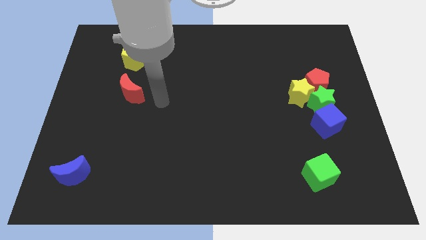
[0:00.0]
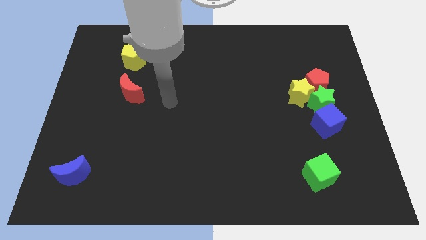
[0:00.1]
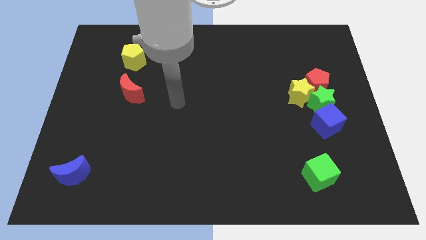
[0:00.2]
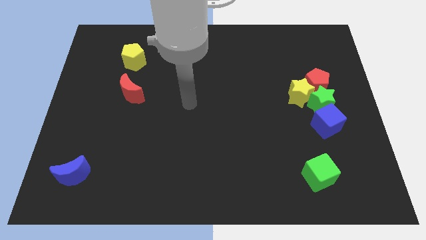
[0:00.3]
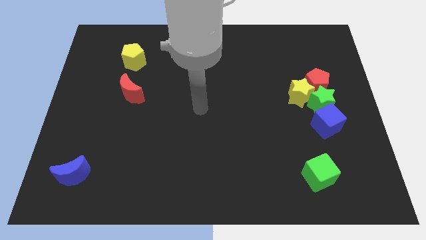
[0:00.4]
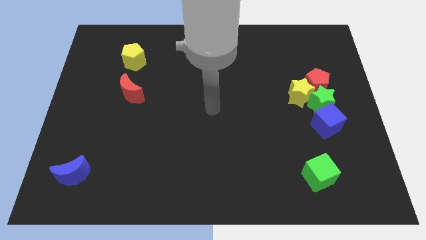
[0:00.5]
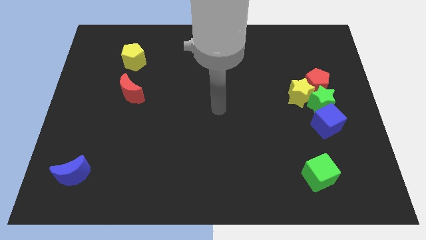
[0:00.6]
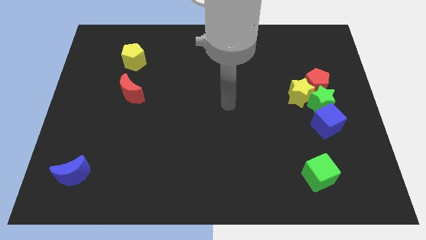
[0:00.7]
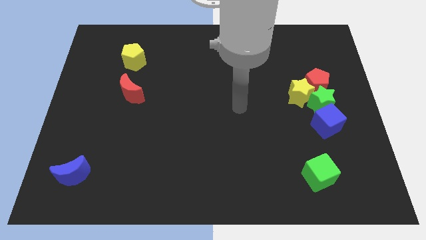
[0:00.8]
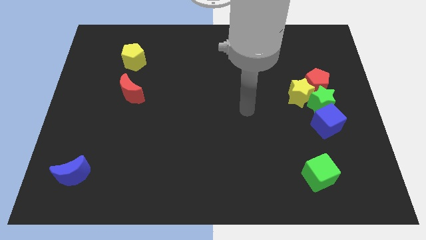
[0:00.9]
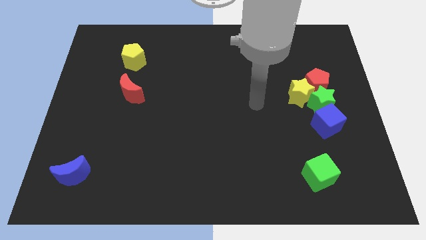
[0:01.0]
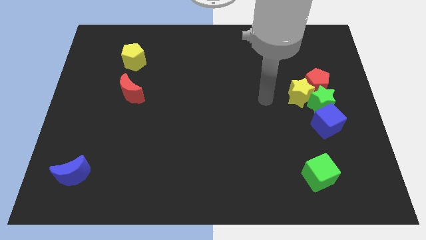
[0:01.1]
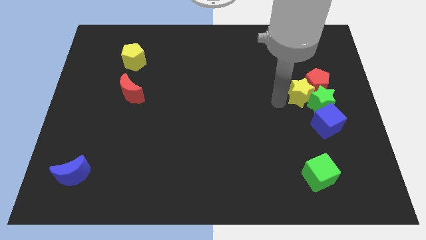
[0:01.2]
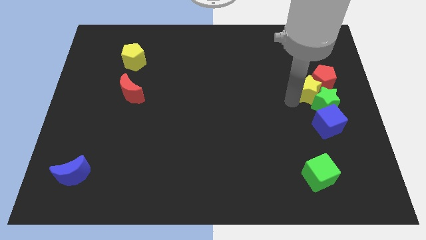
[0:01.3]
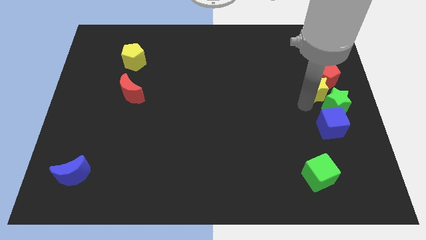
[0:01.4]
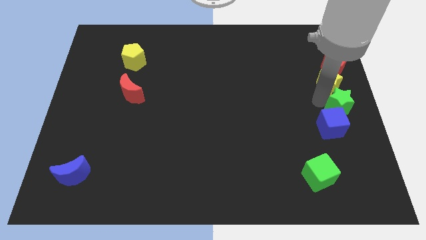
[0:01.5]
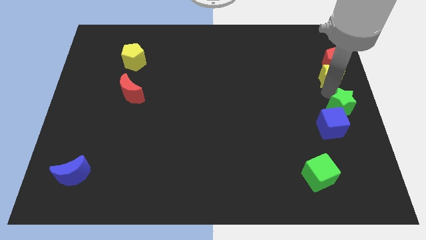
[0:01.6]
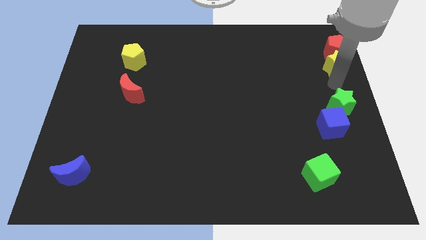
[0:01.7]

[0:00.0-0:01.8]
move the red pentagon away from the green star and yellow star

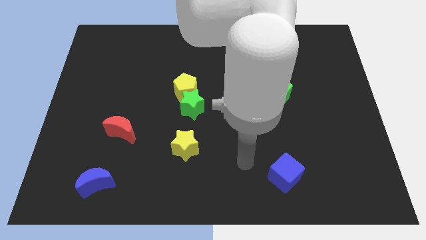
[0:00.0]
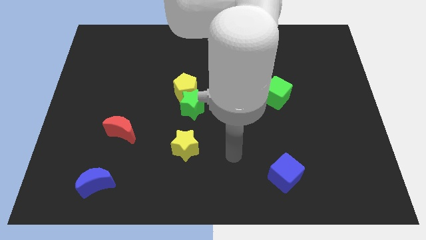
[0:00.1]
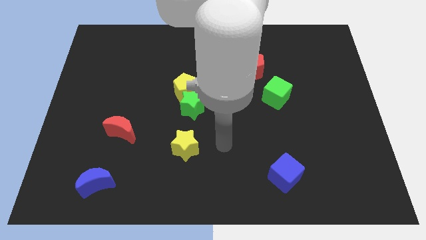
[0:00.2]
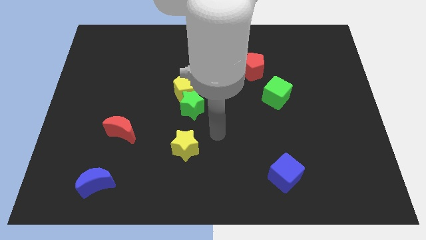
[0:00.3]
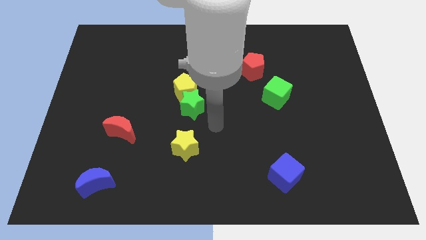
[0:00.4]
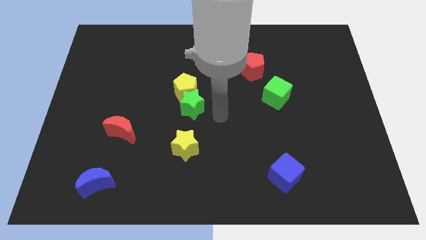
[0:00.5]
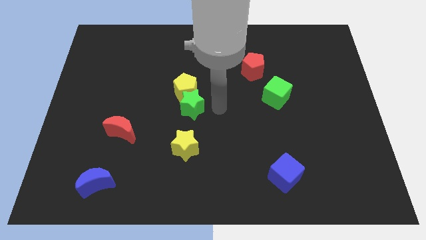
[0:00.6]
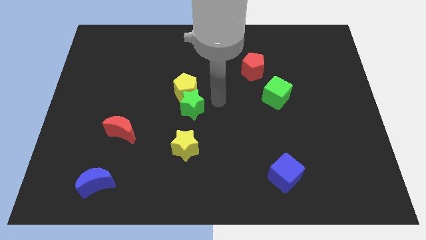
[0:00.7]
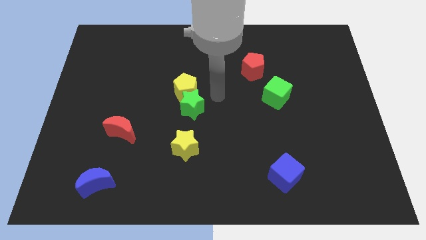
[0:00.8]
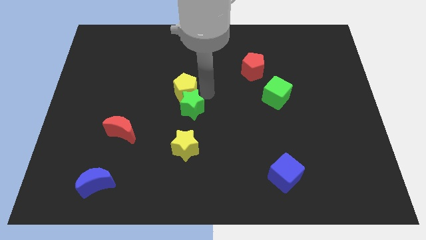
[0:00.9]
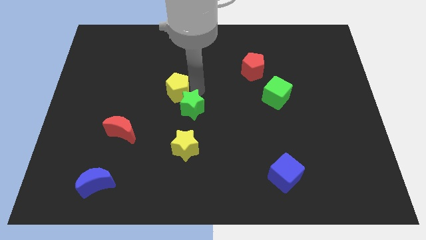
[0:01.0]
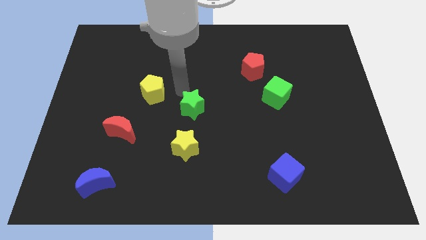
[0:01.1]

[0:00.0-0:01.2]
separate the green star from the yellow pentagon

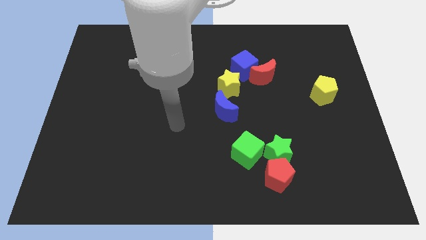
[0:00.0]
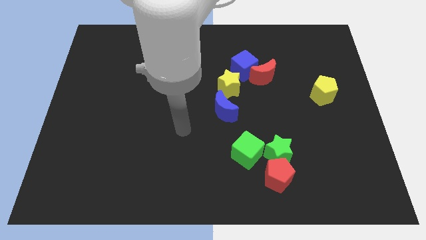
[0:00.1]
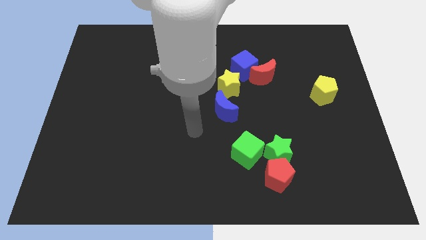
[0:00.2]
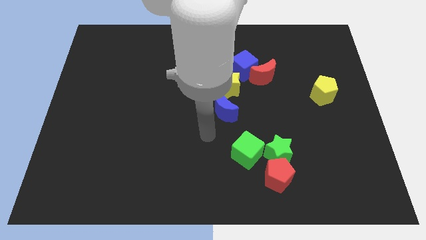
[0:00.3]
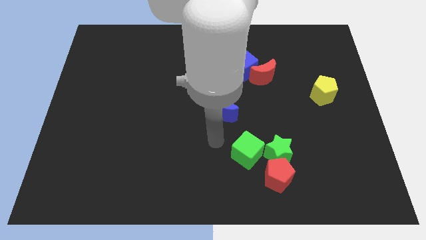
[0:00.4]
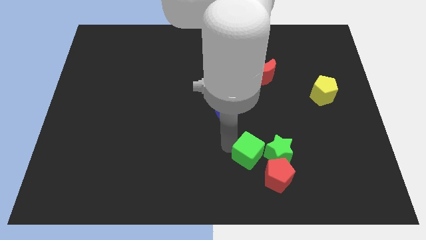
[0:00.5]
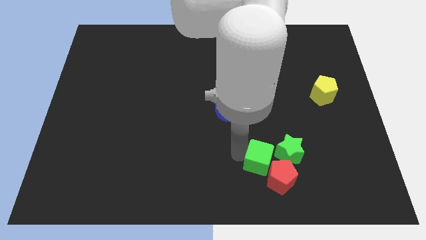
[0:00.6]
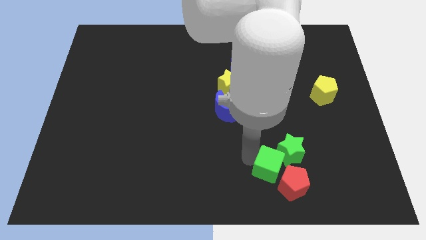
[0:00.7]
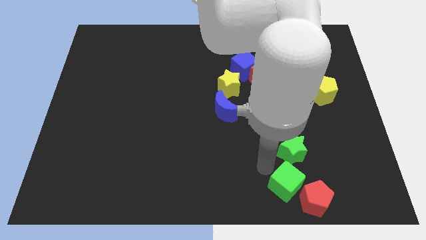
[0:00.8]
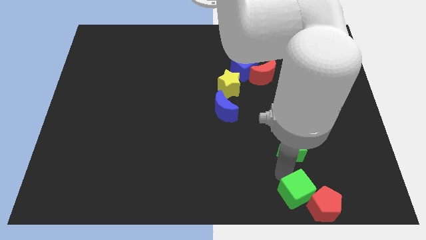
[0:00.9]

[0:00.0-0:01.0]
move the green star away from the red pentagon and green cube

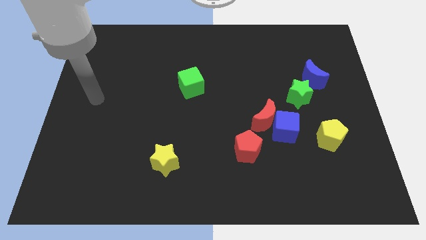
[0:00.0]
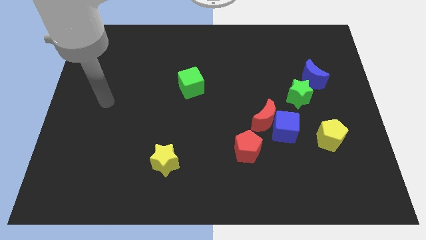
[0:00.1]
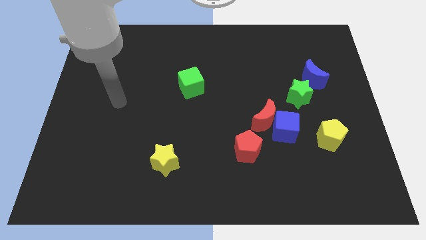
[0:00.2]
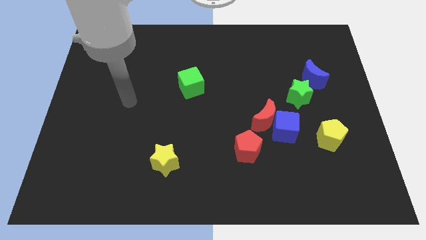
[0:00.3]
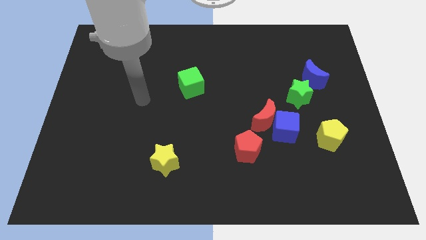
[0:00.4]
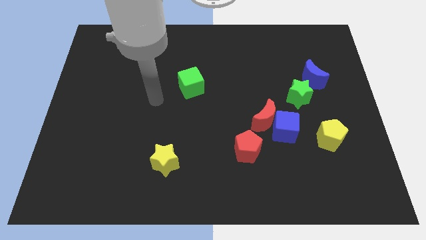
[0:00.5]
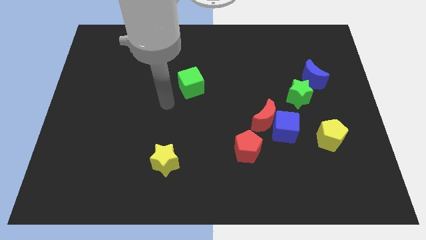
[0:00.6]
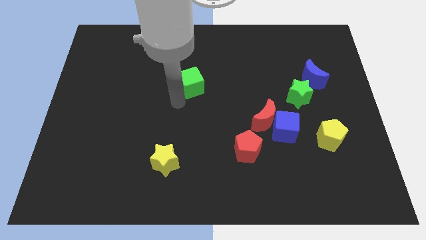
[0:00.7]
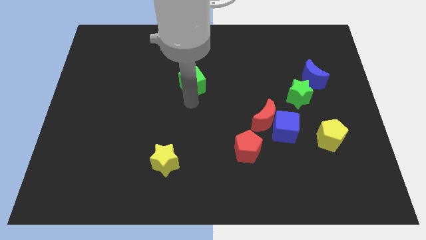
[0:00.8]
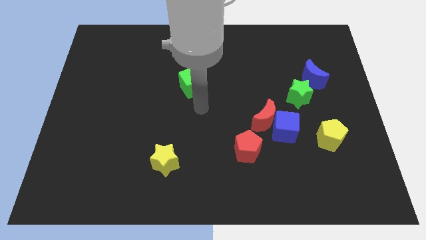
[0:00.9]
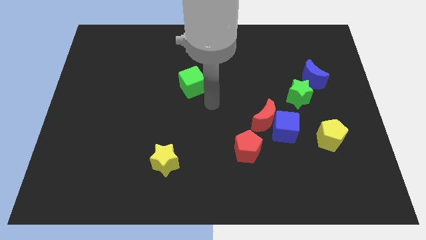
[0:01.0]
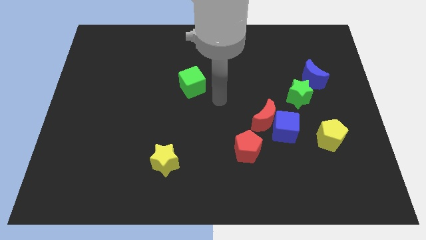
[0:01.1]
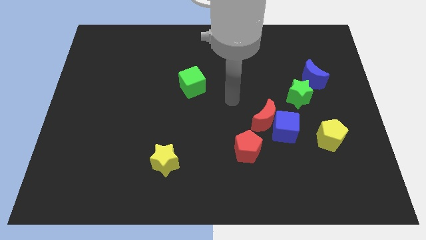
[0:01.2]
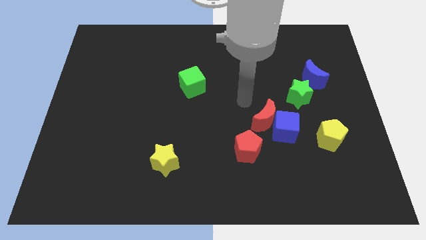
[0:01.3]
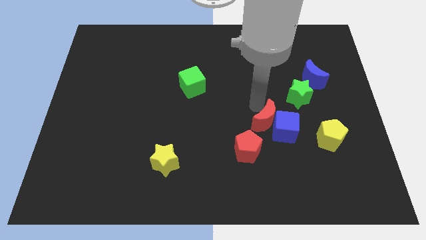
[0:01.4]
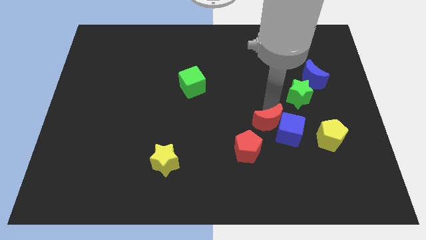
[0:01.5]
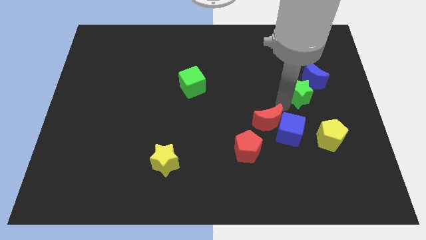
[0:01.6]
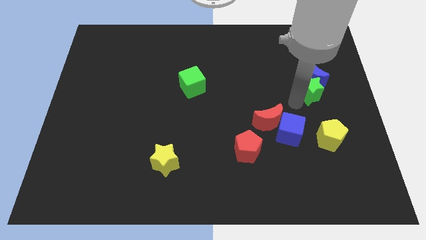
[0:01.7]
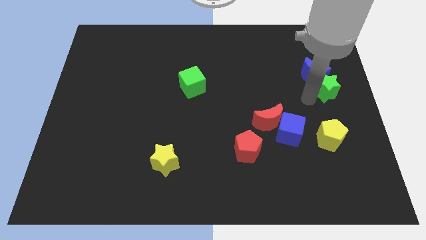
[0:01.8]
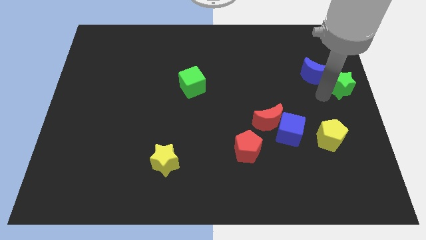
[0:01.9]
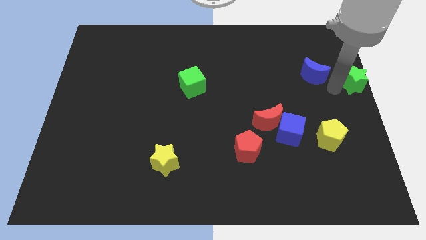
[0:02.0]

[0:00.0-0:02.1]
pull the blue moon apart from the green star

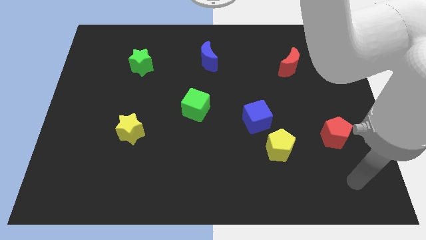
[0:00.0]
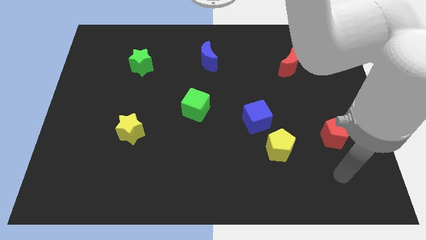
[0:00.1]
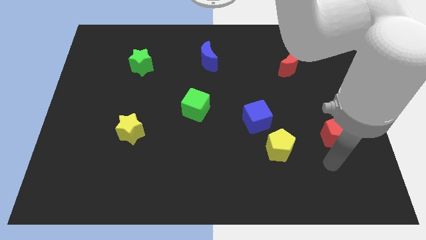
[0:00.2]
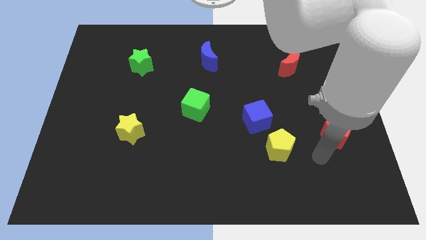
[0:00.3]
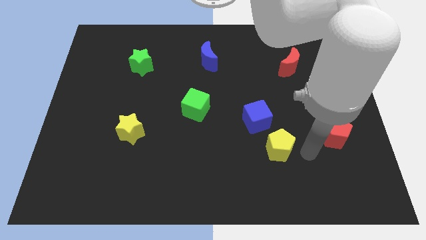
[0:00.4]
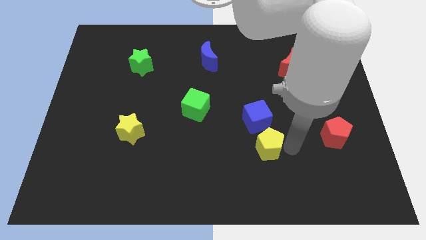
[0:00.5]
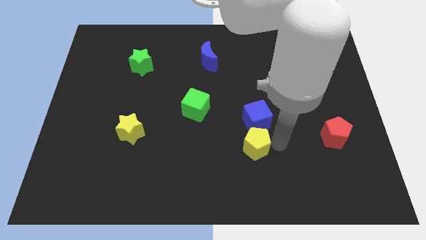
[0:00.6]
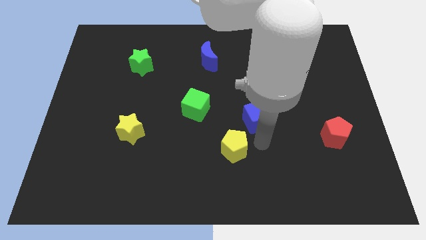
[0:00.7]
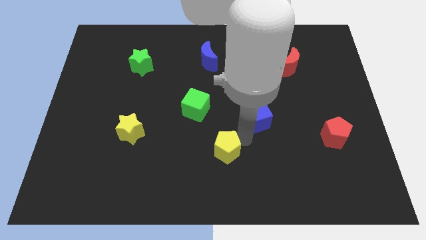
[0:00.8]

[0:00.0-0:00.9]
move the blue cube away from the yellow pentagon

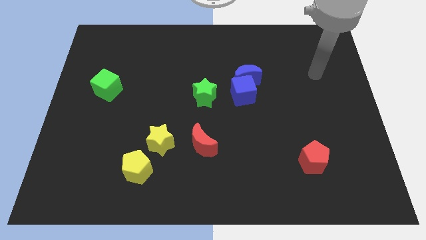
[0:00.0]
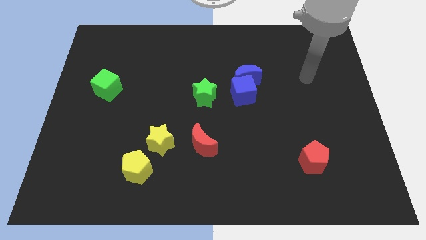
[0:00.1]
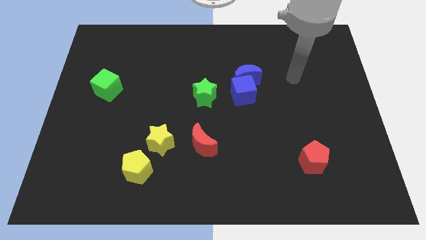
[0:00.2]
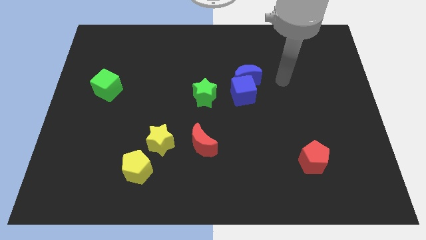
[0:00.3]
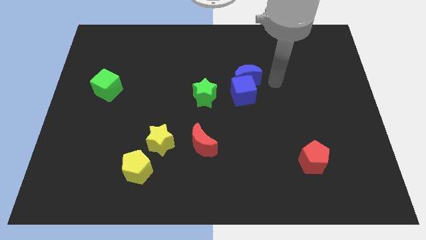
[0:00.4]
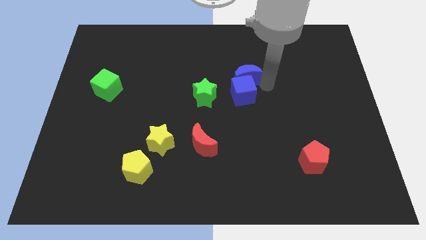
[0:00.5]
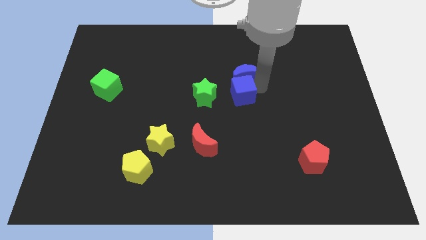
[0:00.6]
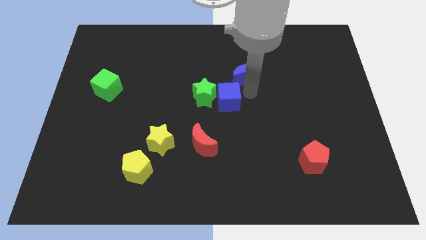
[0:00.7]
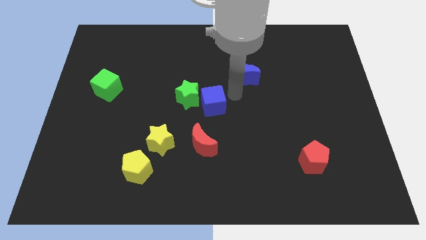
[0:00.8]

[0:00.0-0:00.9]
move the blue moon away from the blue cube

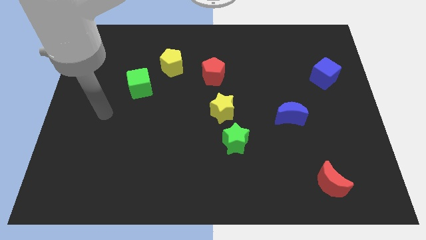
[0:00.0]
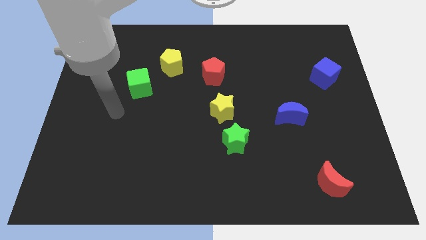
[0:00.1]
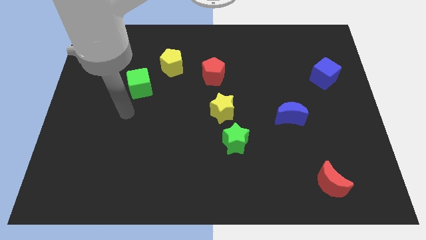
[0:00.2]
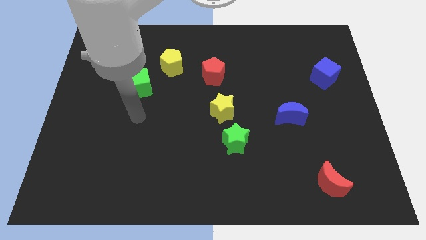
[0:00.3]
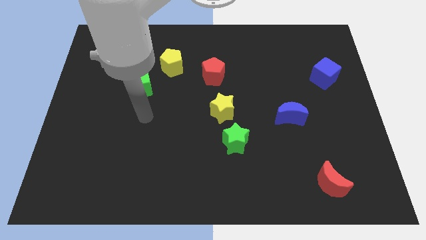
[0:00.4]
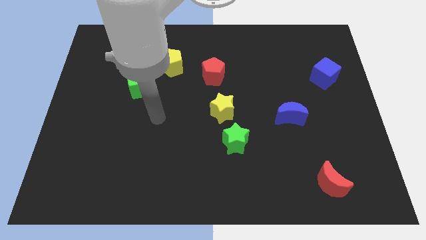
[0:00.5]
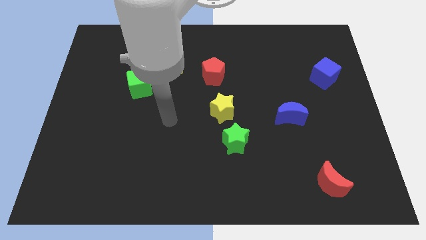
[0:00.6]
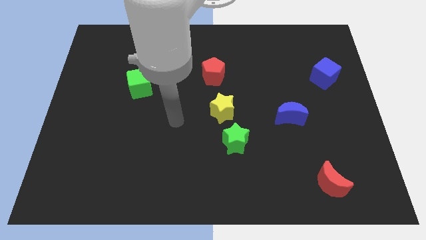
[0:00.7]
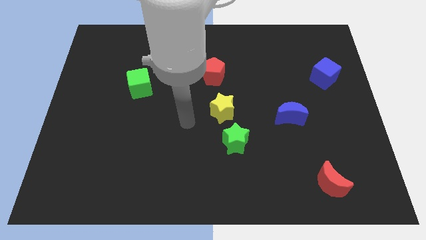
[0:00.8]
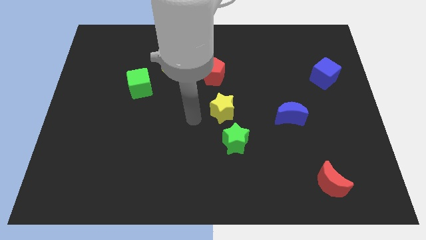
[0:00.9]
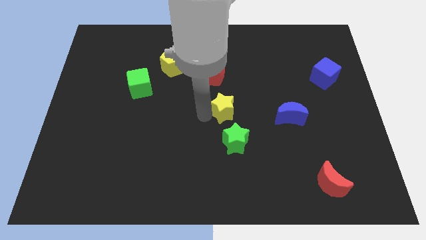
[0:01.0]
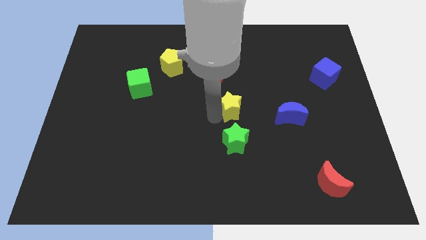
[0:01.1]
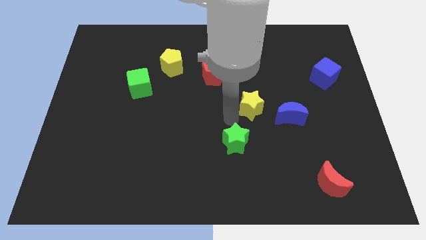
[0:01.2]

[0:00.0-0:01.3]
move the green star away from the yellow star
